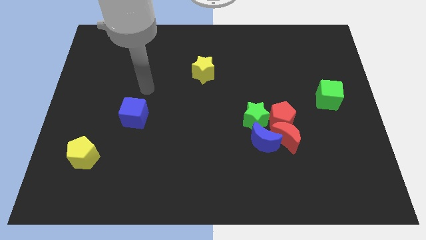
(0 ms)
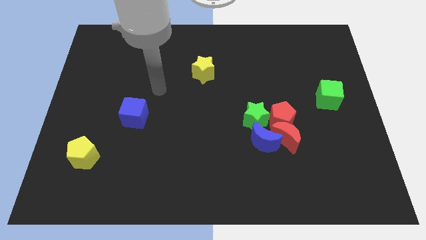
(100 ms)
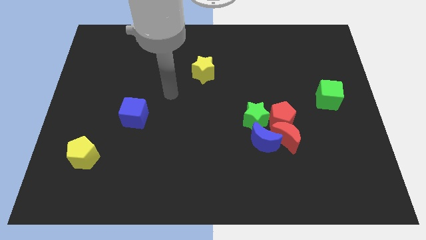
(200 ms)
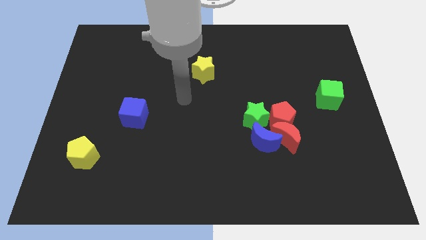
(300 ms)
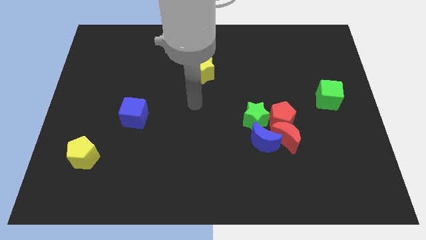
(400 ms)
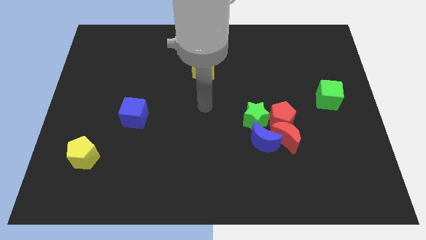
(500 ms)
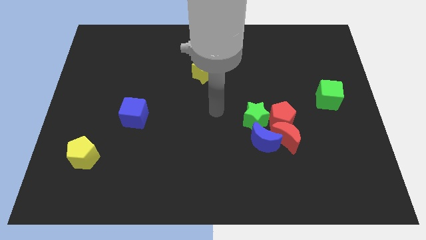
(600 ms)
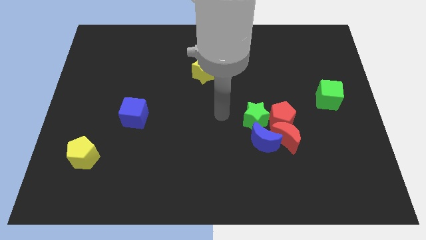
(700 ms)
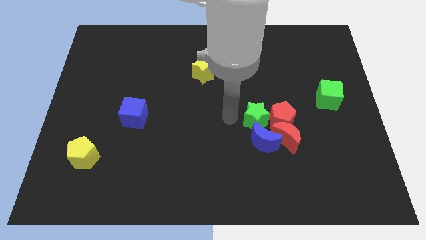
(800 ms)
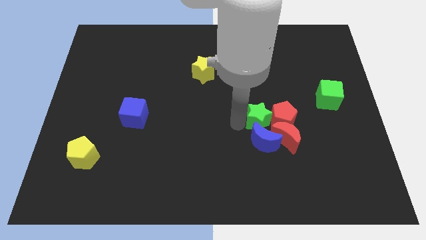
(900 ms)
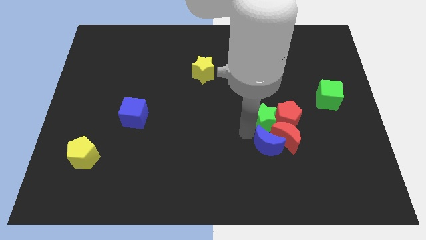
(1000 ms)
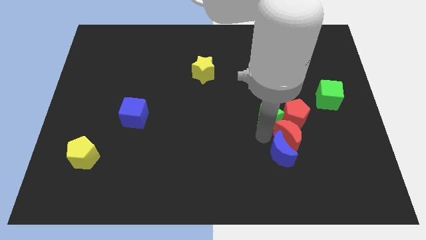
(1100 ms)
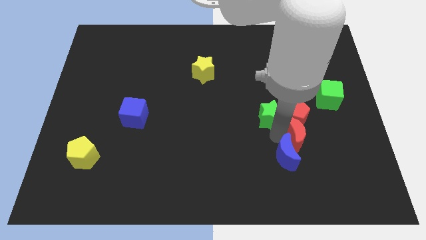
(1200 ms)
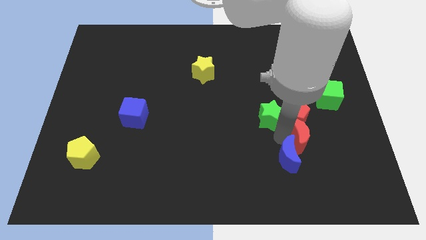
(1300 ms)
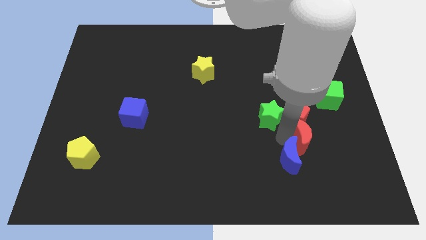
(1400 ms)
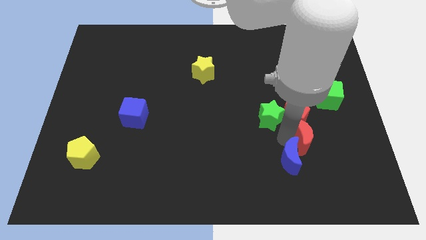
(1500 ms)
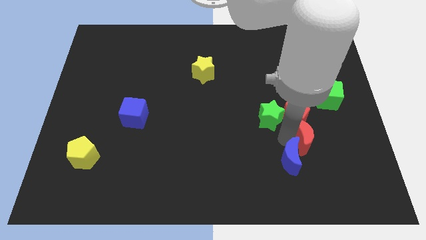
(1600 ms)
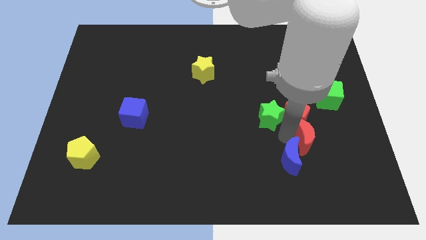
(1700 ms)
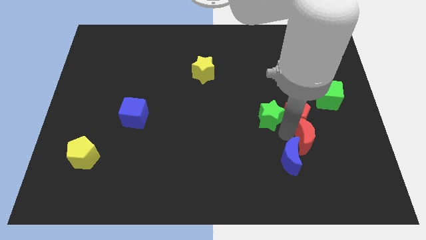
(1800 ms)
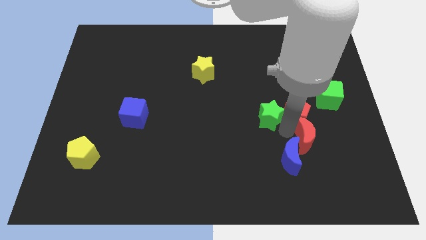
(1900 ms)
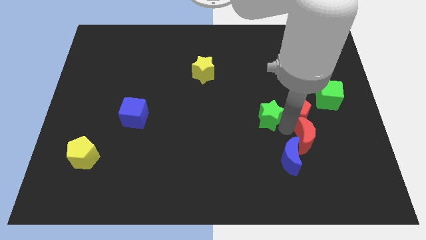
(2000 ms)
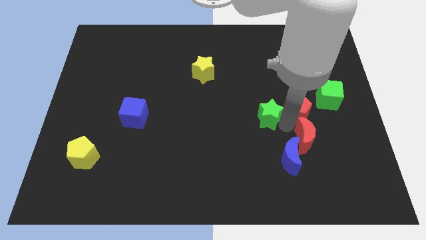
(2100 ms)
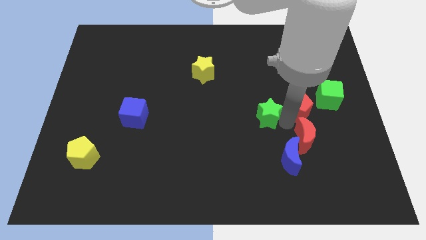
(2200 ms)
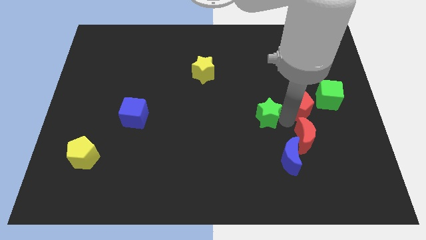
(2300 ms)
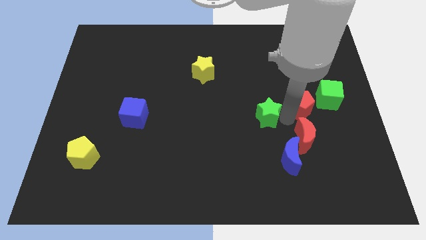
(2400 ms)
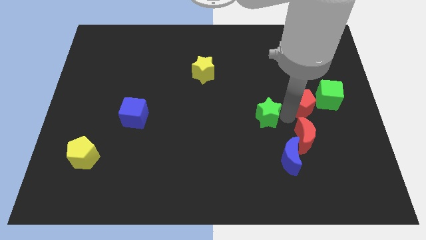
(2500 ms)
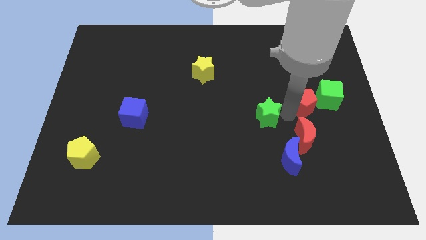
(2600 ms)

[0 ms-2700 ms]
separate the red pentagon from the red moon, green star, and blue moon

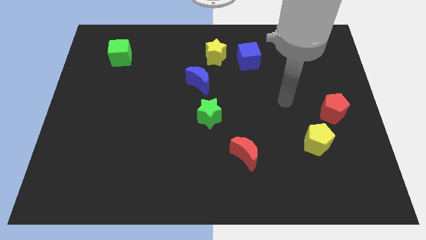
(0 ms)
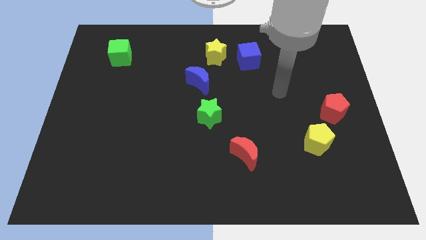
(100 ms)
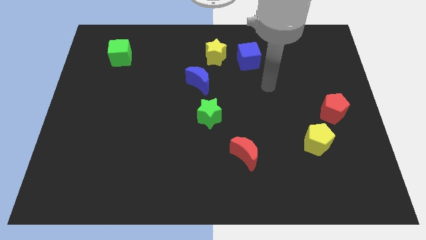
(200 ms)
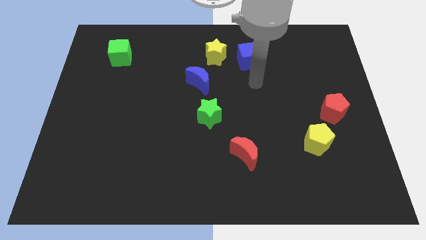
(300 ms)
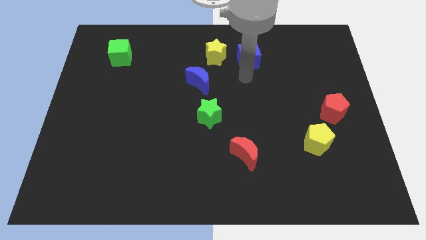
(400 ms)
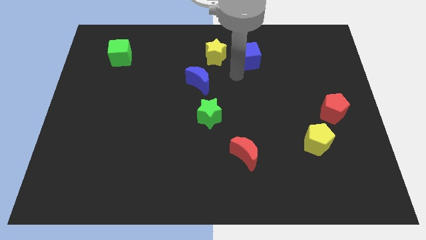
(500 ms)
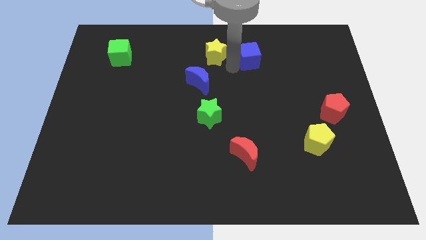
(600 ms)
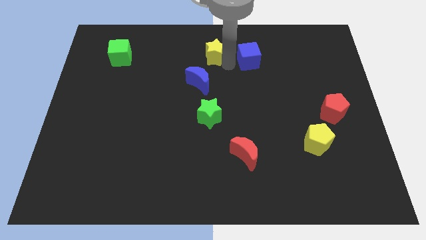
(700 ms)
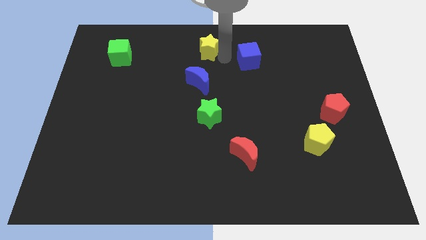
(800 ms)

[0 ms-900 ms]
pull the blue cube apart from the yellow star

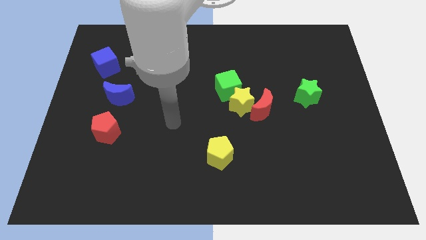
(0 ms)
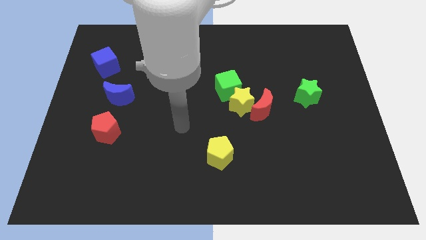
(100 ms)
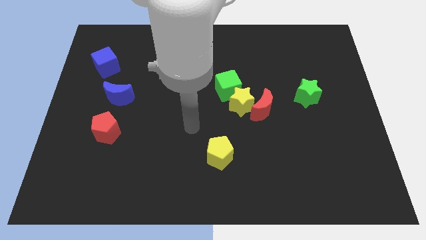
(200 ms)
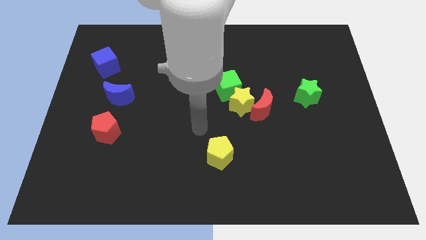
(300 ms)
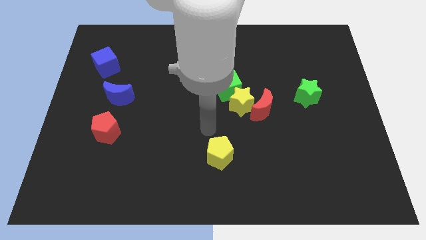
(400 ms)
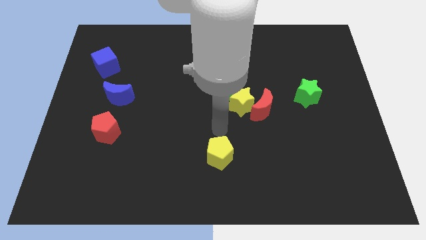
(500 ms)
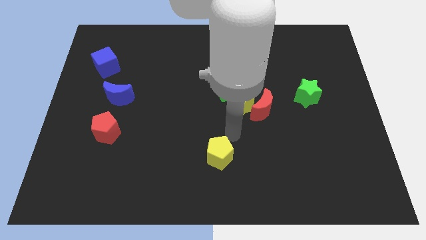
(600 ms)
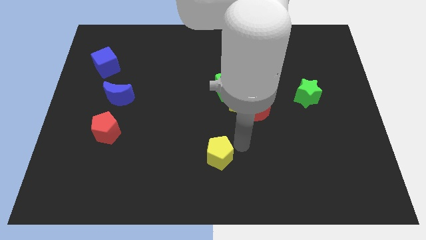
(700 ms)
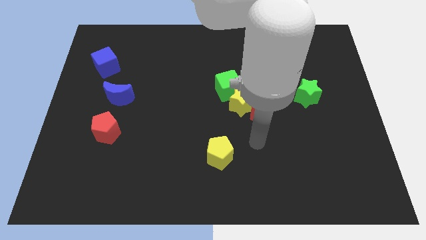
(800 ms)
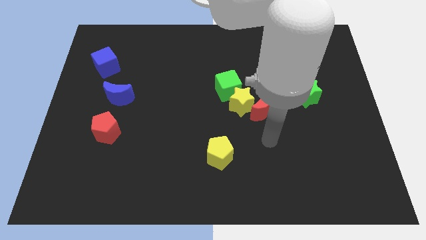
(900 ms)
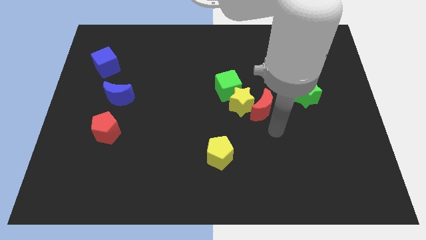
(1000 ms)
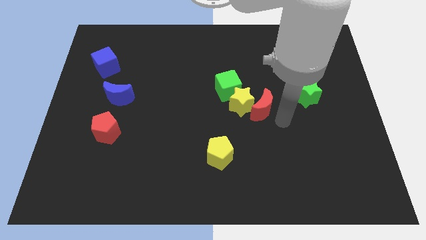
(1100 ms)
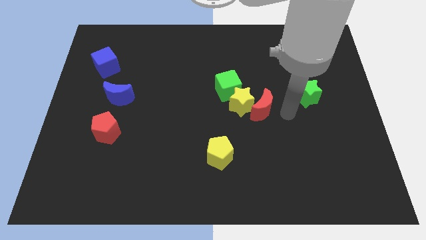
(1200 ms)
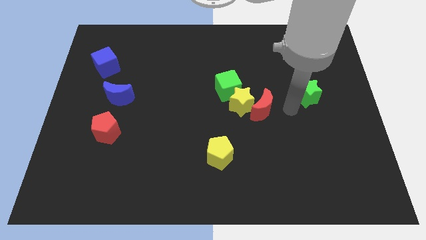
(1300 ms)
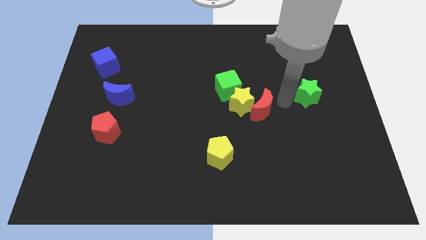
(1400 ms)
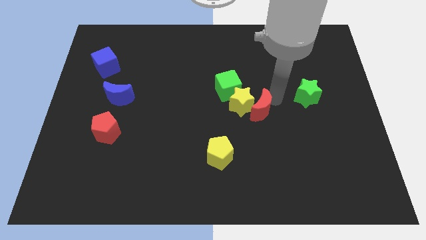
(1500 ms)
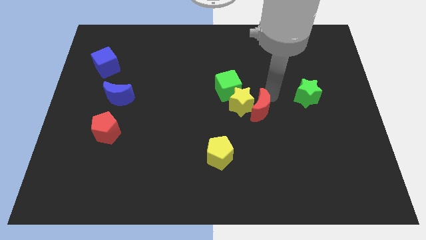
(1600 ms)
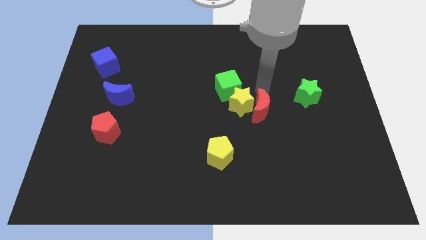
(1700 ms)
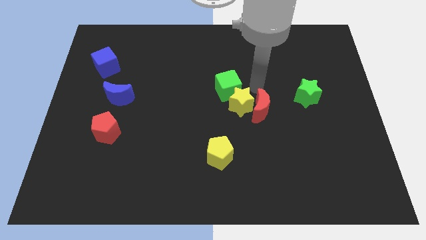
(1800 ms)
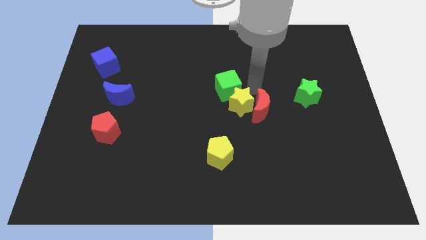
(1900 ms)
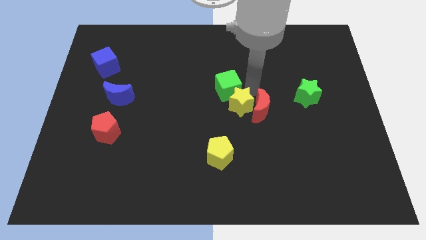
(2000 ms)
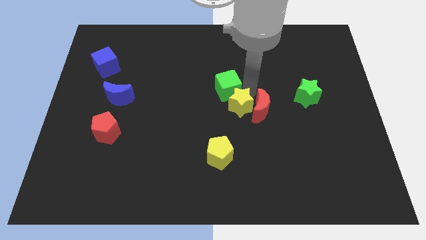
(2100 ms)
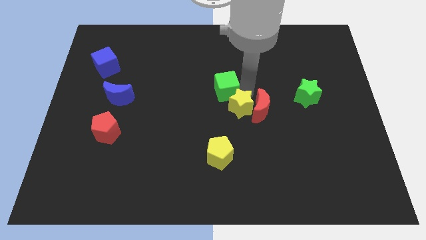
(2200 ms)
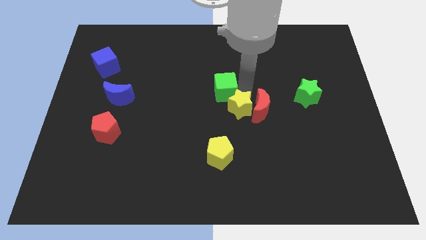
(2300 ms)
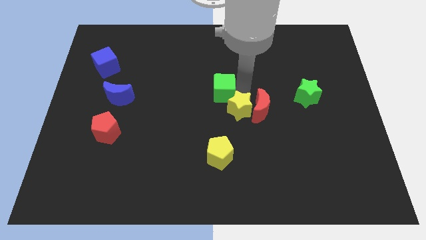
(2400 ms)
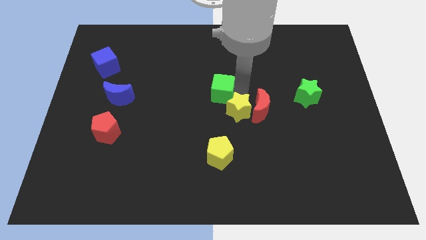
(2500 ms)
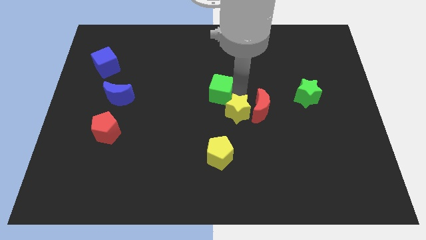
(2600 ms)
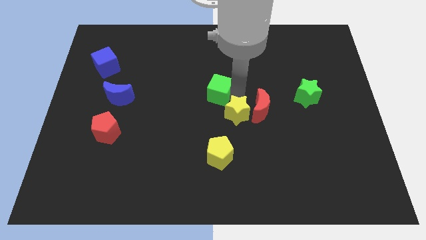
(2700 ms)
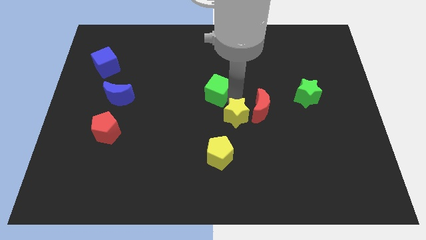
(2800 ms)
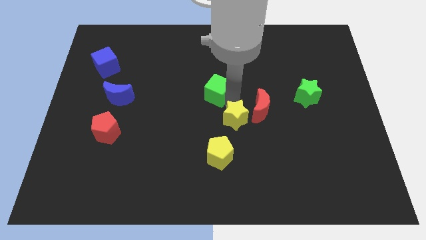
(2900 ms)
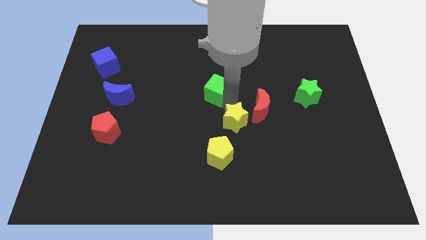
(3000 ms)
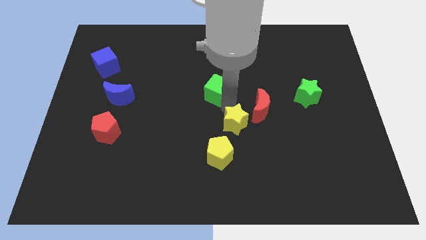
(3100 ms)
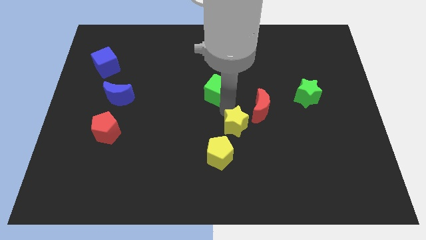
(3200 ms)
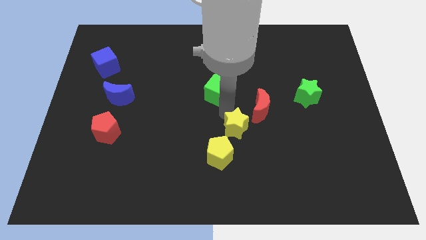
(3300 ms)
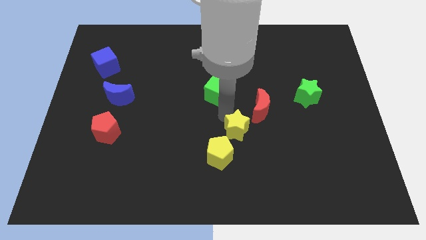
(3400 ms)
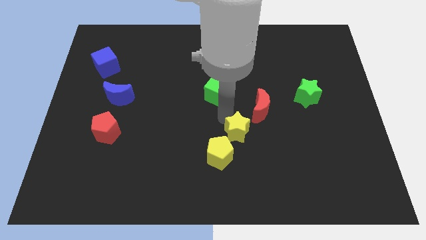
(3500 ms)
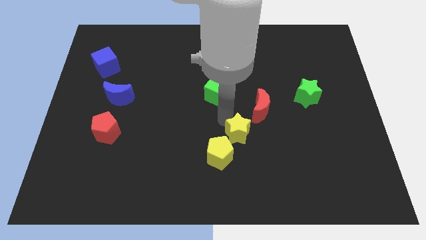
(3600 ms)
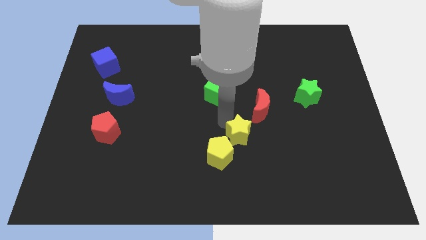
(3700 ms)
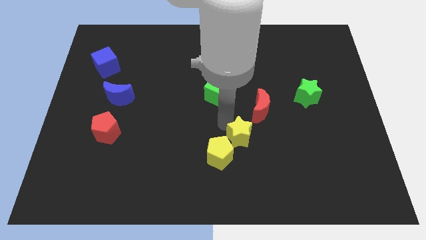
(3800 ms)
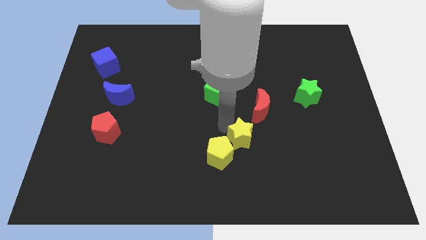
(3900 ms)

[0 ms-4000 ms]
move the yellow star away from the red moon and green cube

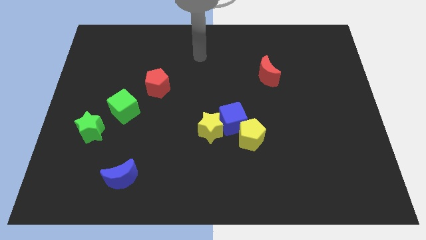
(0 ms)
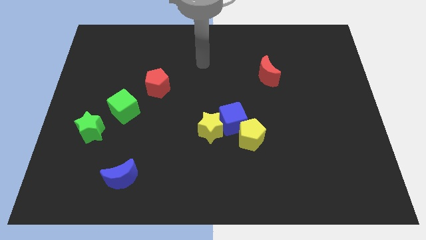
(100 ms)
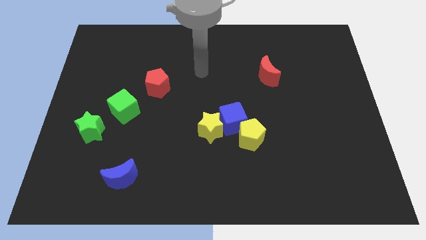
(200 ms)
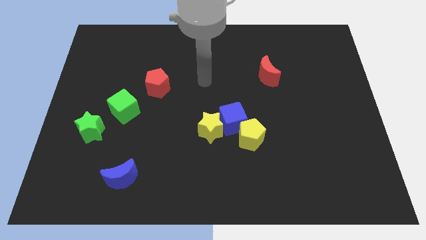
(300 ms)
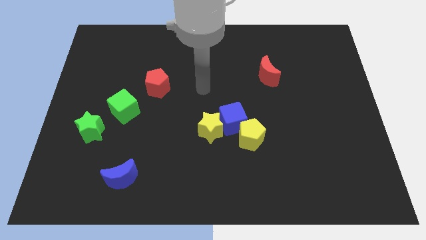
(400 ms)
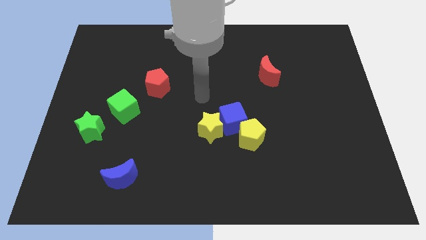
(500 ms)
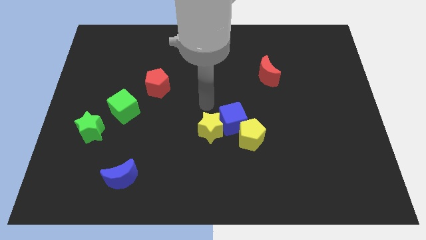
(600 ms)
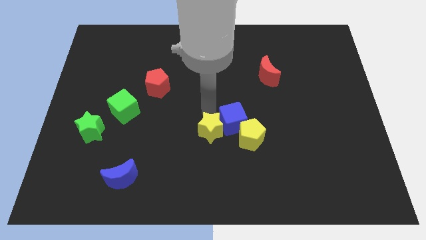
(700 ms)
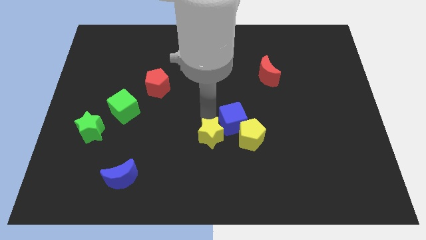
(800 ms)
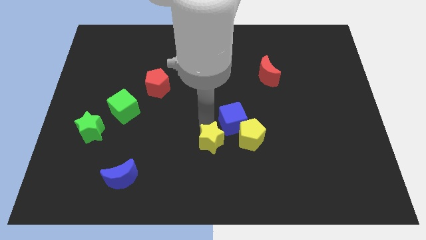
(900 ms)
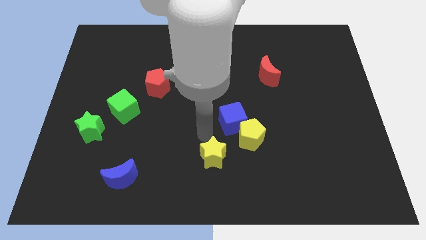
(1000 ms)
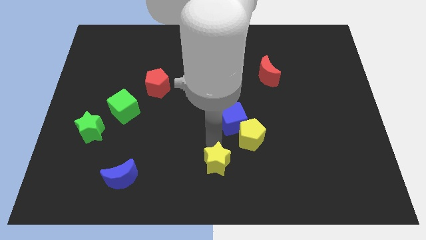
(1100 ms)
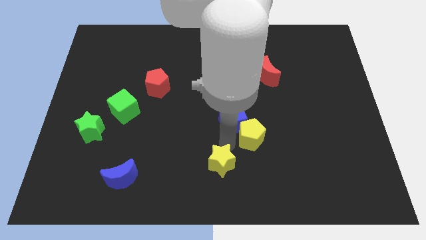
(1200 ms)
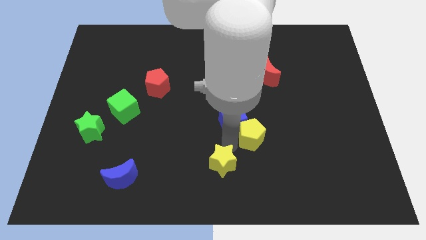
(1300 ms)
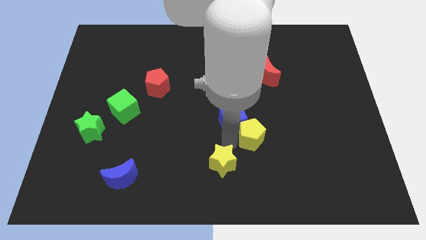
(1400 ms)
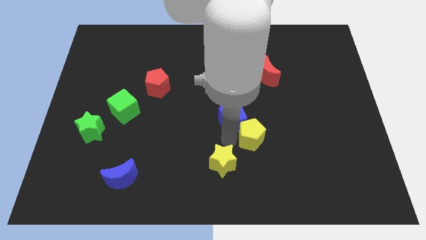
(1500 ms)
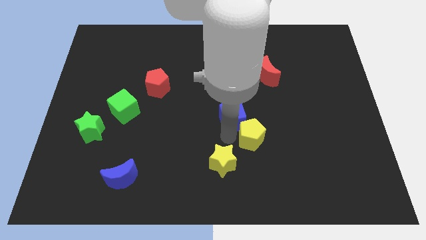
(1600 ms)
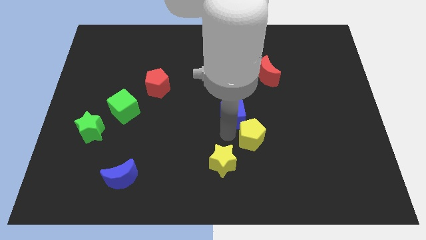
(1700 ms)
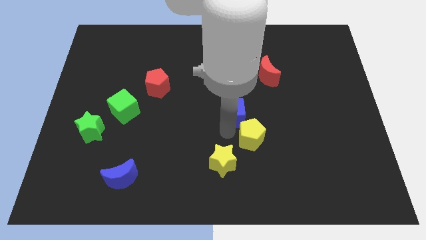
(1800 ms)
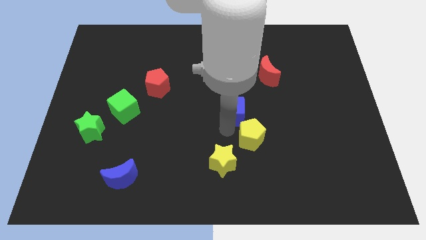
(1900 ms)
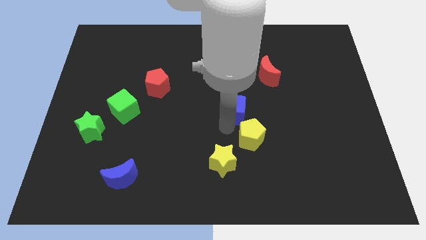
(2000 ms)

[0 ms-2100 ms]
pull the blue cube apart from the yellow star and yellow pentagon
